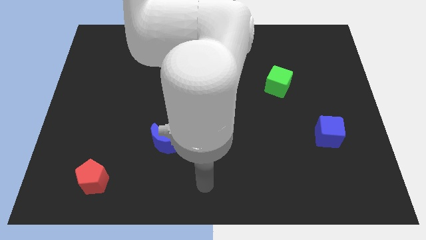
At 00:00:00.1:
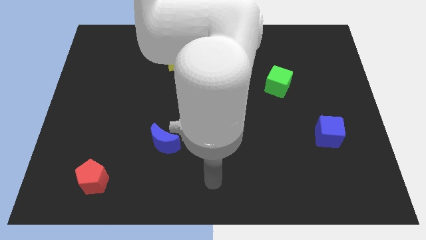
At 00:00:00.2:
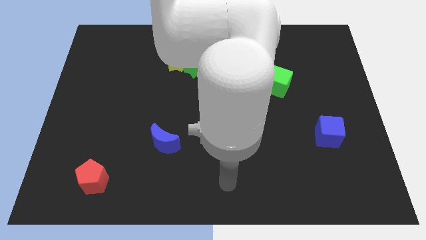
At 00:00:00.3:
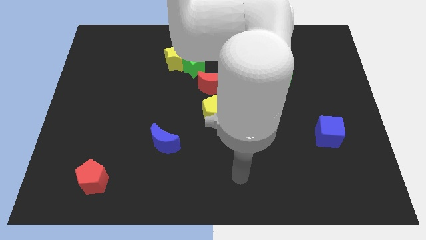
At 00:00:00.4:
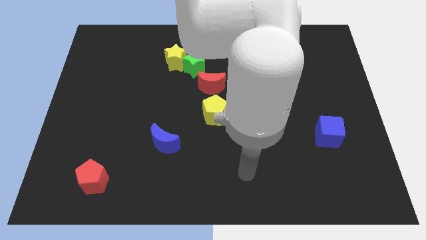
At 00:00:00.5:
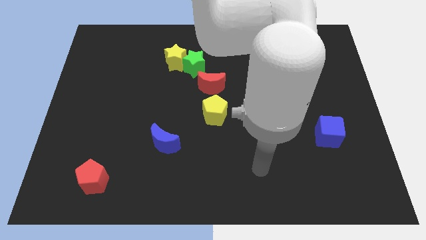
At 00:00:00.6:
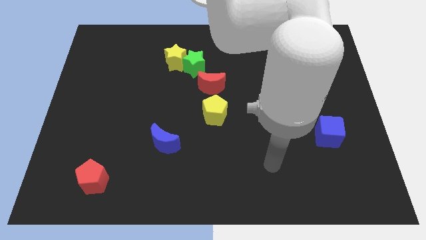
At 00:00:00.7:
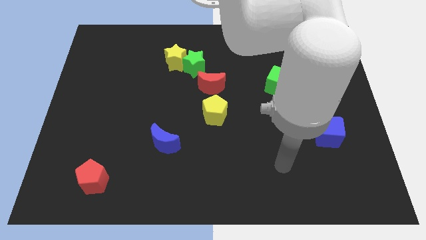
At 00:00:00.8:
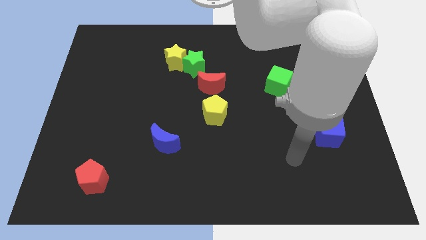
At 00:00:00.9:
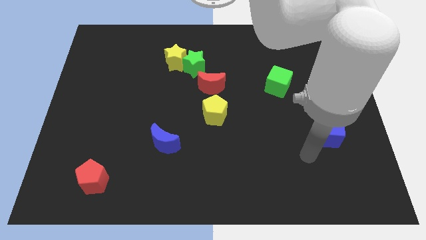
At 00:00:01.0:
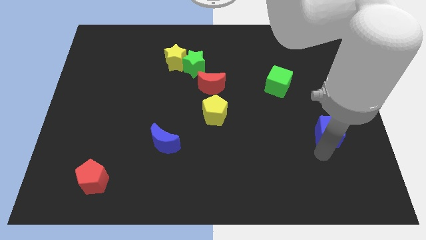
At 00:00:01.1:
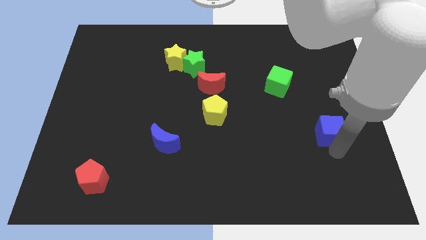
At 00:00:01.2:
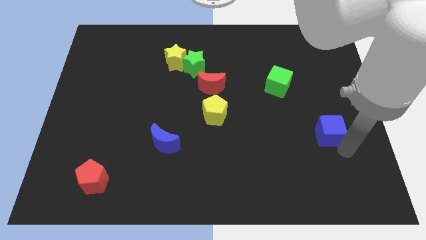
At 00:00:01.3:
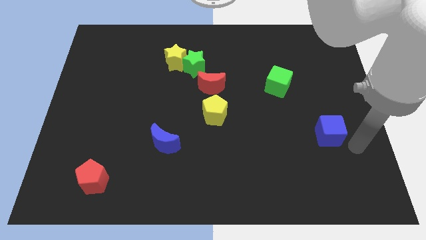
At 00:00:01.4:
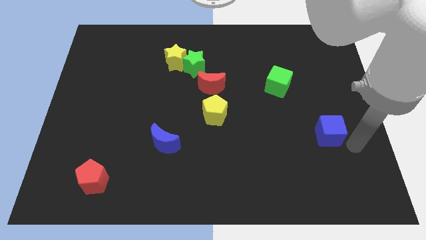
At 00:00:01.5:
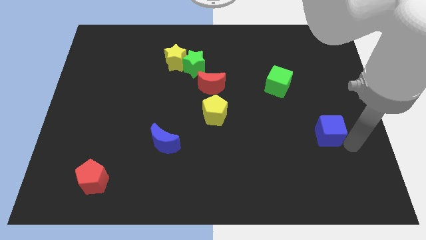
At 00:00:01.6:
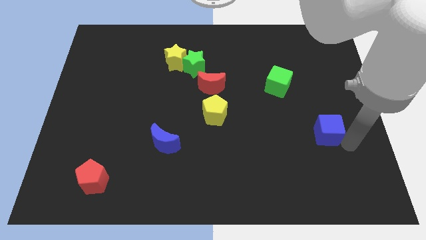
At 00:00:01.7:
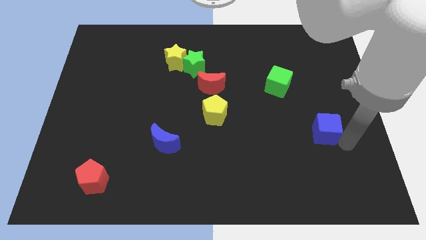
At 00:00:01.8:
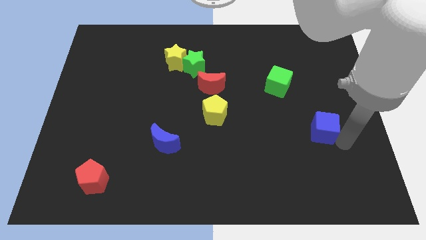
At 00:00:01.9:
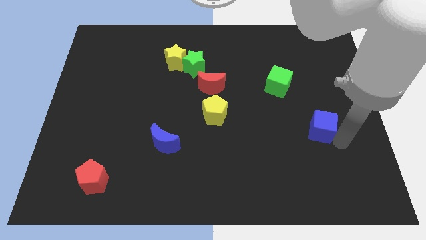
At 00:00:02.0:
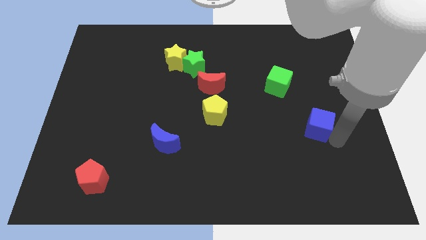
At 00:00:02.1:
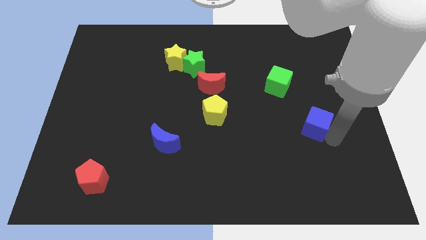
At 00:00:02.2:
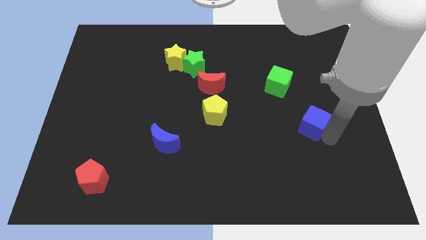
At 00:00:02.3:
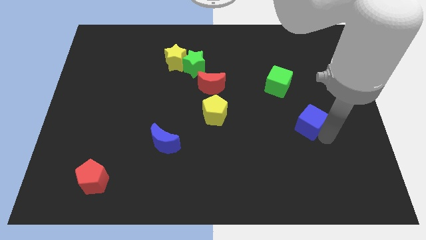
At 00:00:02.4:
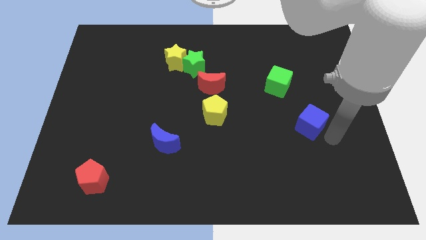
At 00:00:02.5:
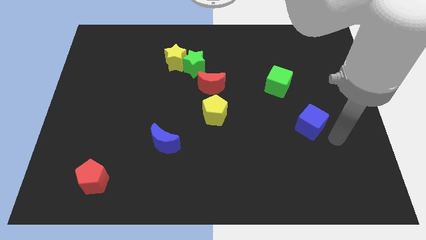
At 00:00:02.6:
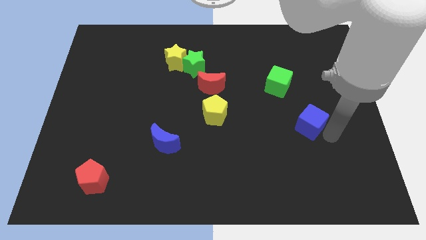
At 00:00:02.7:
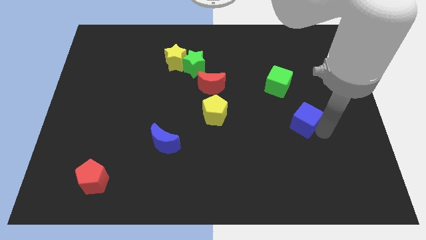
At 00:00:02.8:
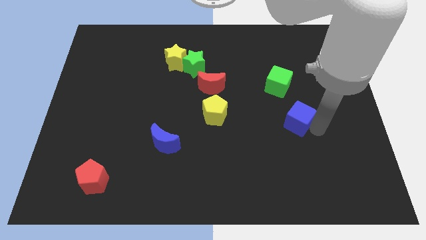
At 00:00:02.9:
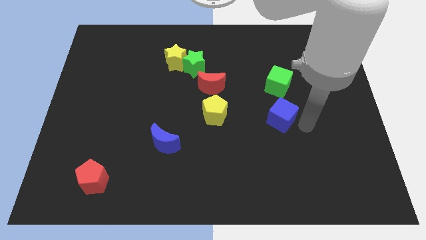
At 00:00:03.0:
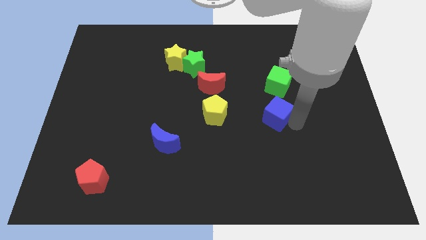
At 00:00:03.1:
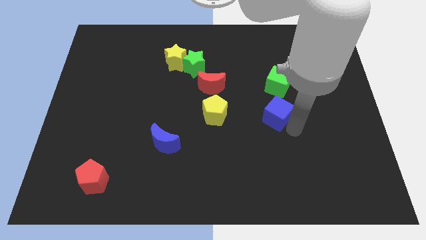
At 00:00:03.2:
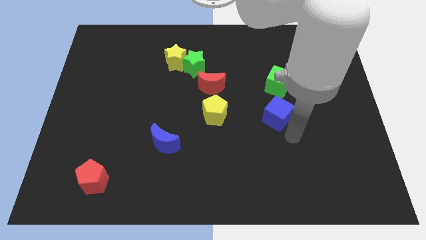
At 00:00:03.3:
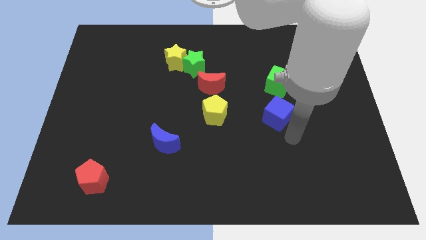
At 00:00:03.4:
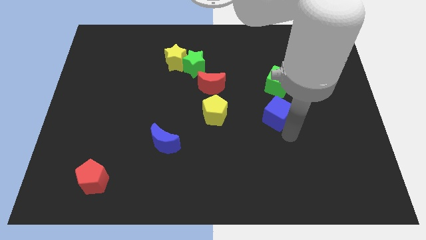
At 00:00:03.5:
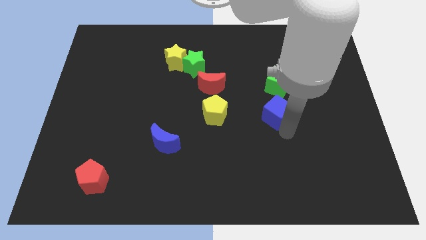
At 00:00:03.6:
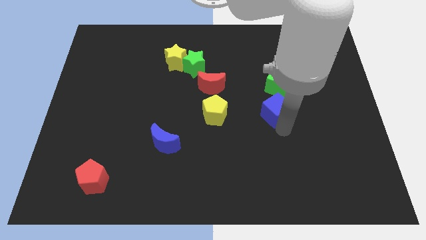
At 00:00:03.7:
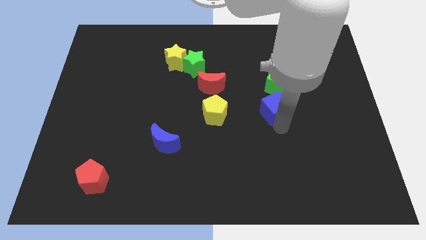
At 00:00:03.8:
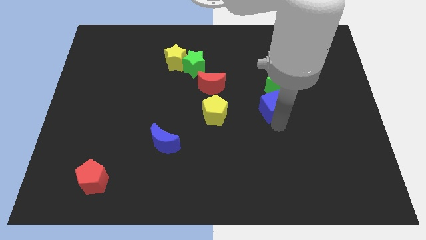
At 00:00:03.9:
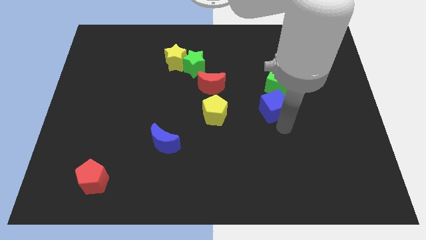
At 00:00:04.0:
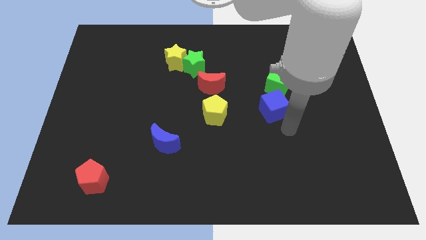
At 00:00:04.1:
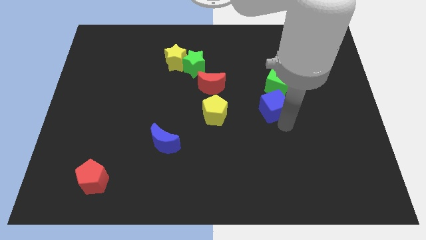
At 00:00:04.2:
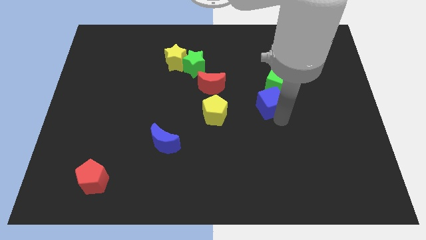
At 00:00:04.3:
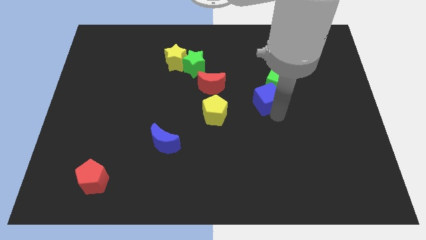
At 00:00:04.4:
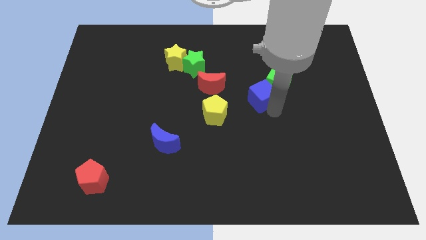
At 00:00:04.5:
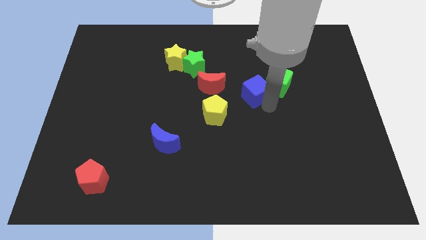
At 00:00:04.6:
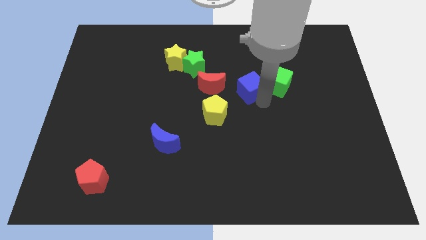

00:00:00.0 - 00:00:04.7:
push the blue cube diagonally upwards and to the left

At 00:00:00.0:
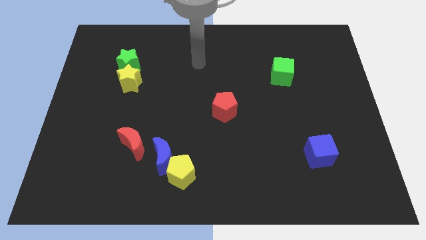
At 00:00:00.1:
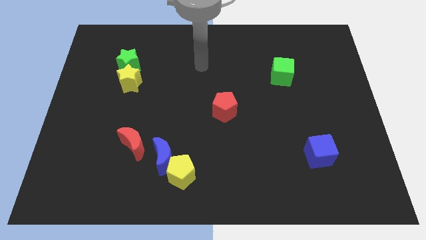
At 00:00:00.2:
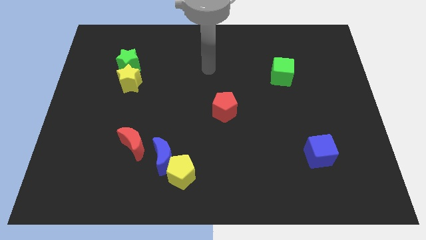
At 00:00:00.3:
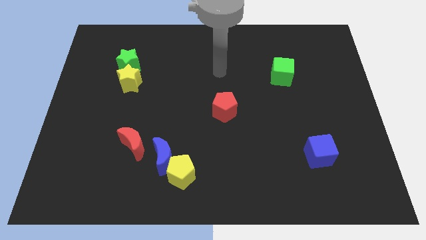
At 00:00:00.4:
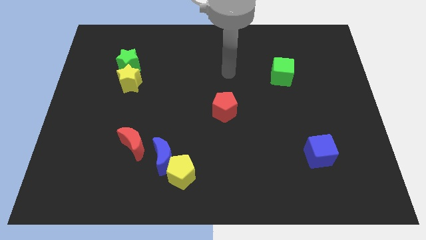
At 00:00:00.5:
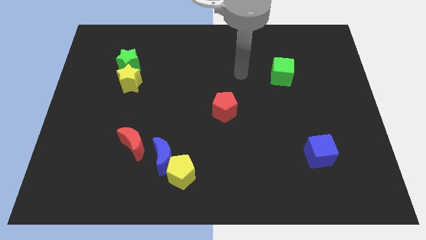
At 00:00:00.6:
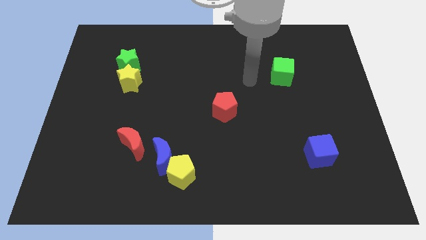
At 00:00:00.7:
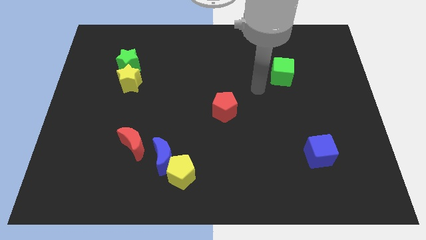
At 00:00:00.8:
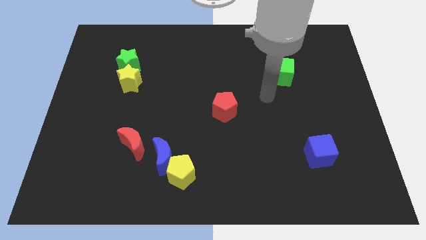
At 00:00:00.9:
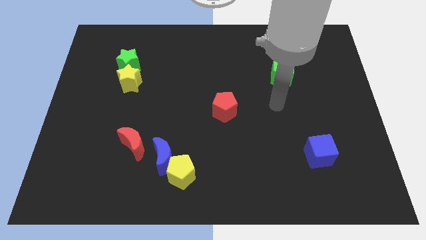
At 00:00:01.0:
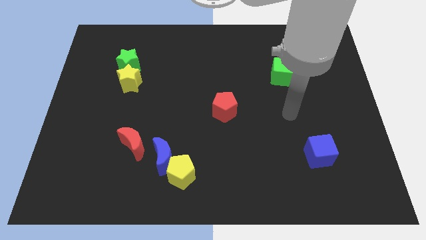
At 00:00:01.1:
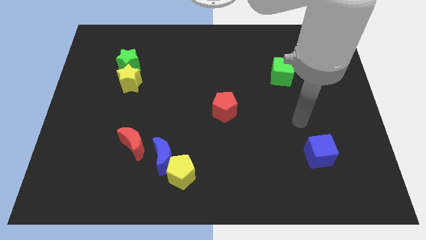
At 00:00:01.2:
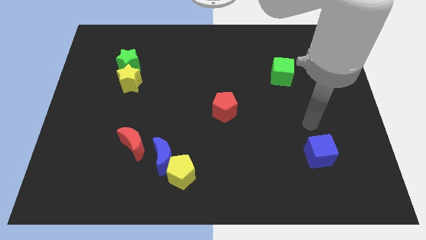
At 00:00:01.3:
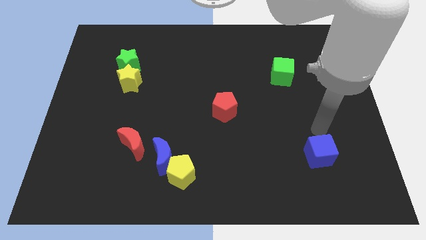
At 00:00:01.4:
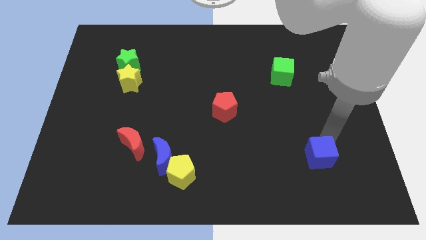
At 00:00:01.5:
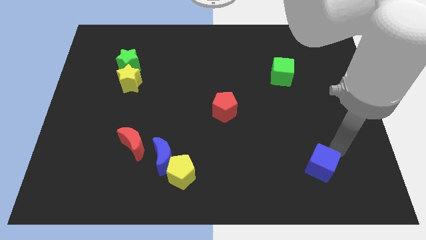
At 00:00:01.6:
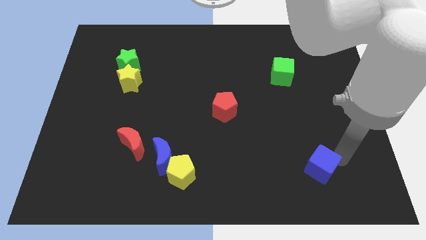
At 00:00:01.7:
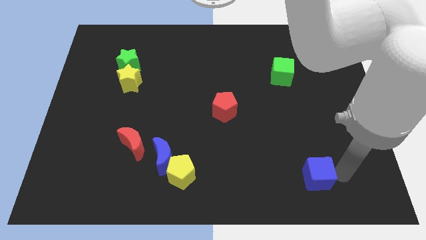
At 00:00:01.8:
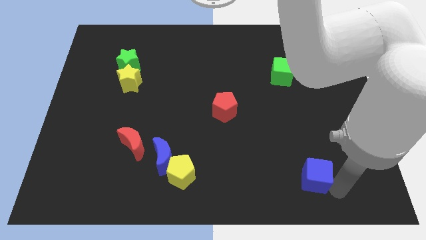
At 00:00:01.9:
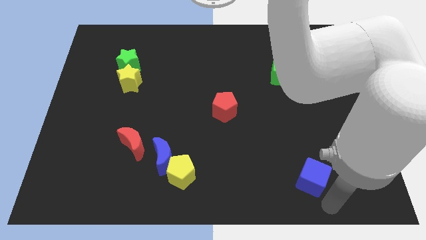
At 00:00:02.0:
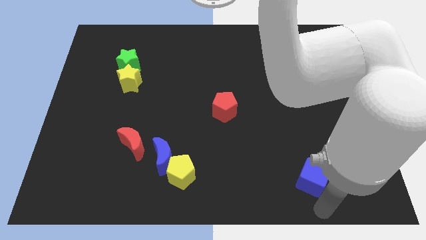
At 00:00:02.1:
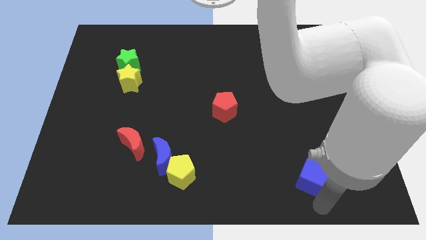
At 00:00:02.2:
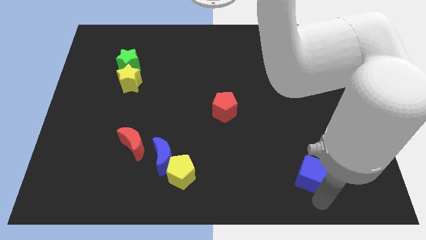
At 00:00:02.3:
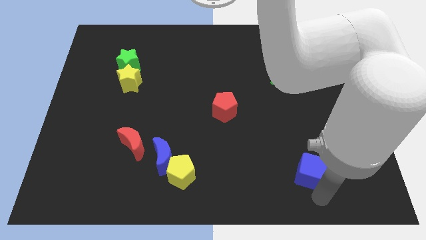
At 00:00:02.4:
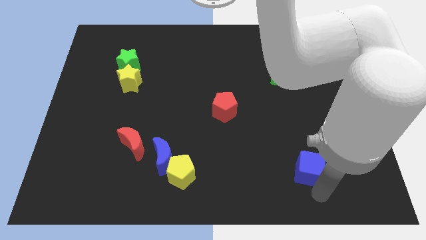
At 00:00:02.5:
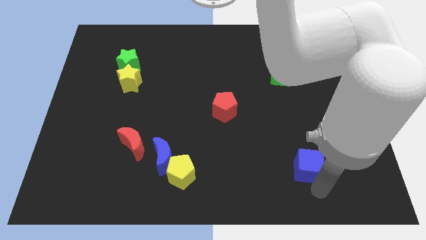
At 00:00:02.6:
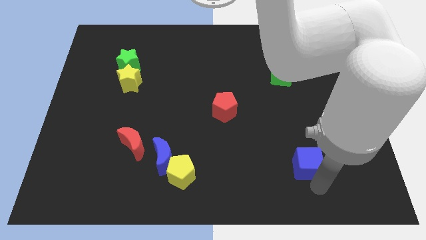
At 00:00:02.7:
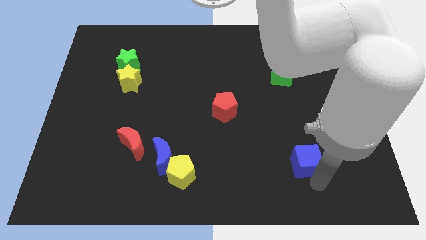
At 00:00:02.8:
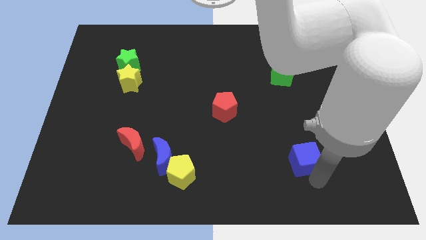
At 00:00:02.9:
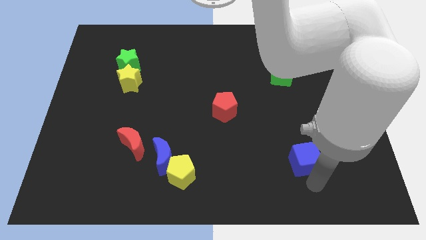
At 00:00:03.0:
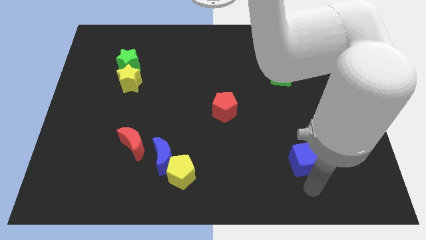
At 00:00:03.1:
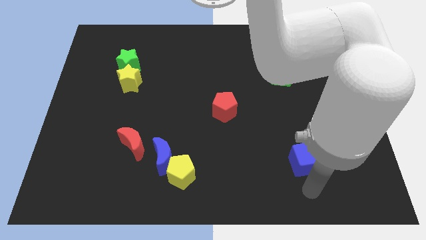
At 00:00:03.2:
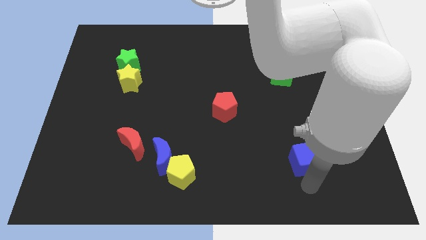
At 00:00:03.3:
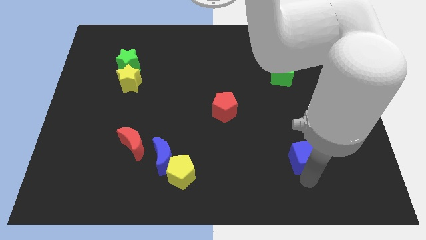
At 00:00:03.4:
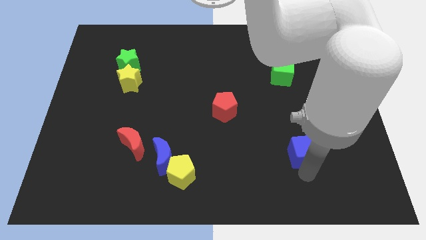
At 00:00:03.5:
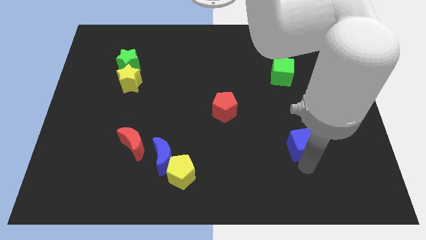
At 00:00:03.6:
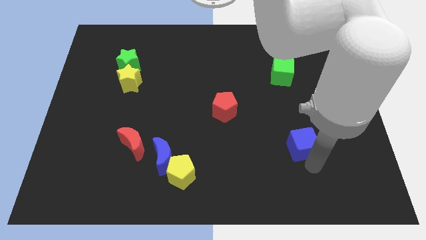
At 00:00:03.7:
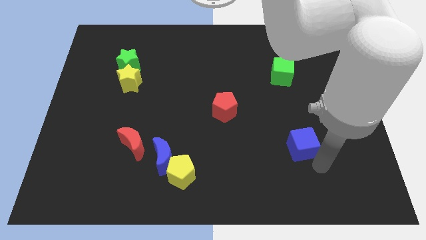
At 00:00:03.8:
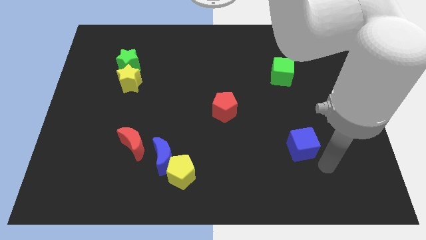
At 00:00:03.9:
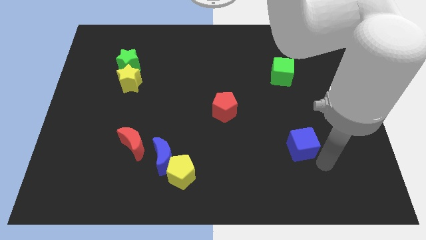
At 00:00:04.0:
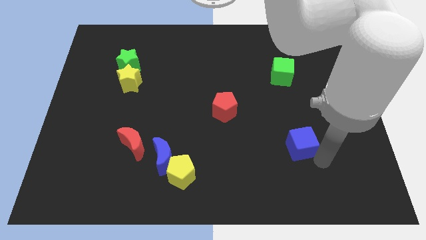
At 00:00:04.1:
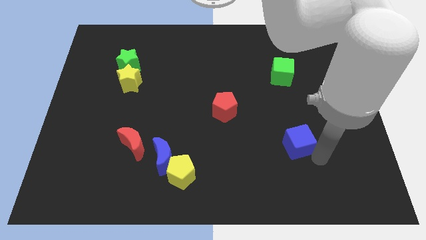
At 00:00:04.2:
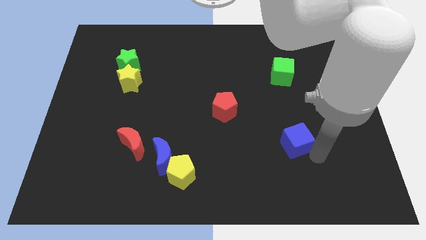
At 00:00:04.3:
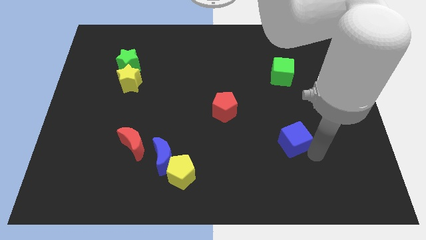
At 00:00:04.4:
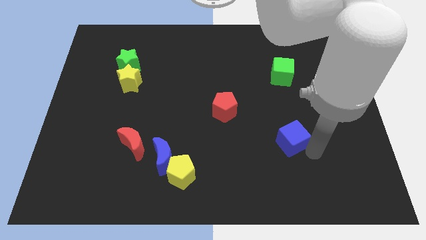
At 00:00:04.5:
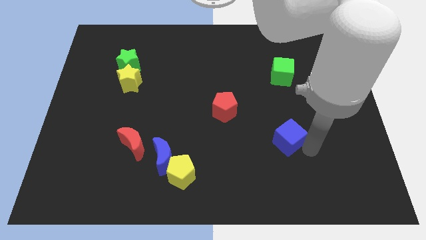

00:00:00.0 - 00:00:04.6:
slightly slide the blue cube upwards and to the left diagonally
